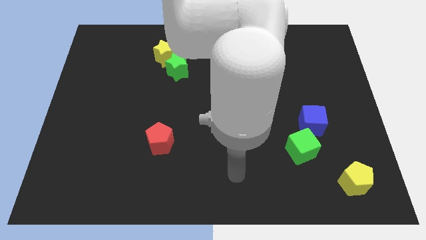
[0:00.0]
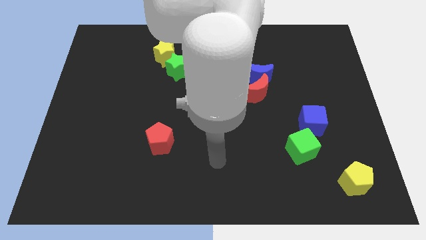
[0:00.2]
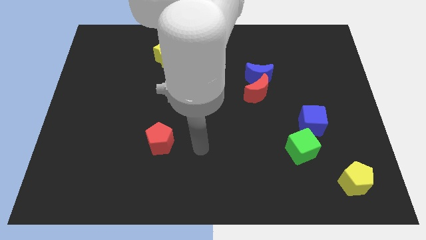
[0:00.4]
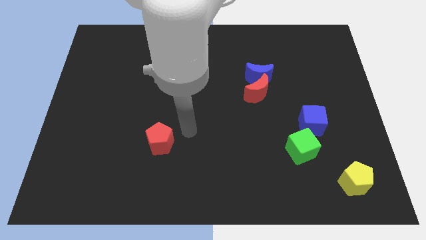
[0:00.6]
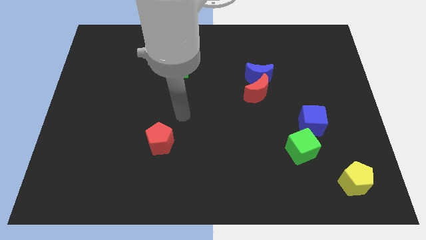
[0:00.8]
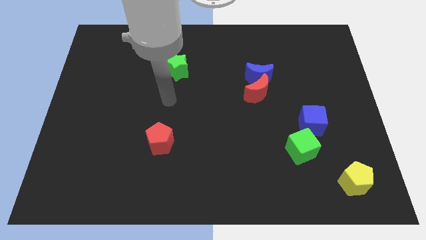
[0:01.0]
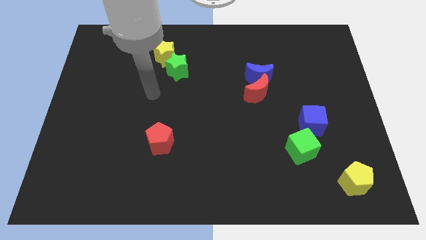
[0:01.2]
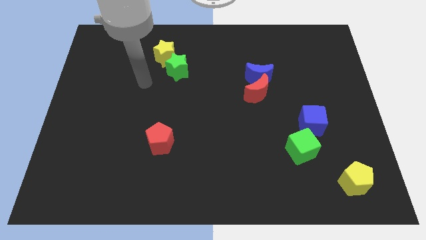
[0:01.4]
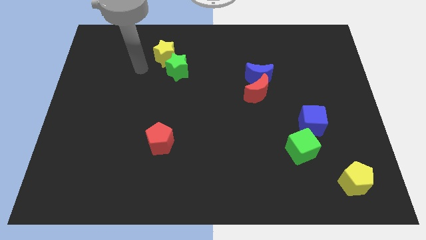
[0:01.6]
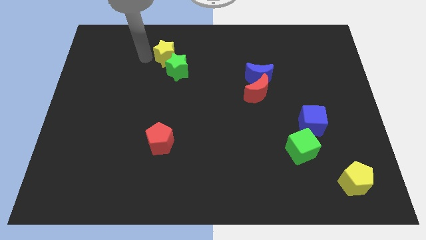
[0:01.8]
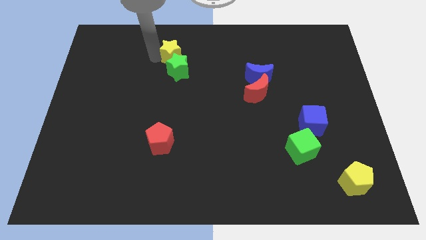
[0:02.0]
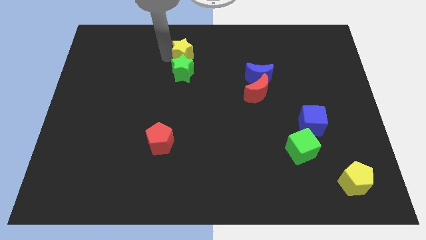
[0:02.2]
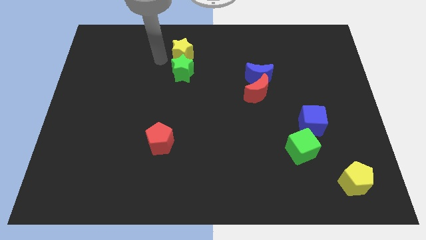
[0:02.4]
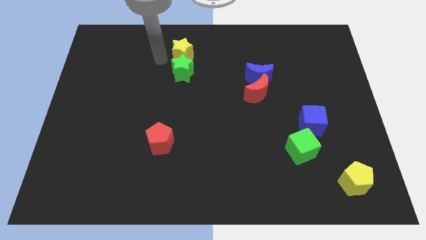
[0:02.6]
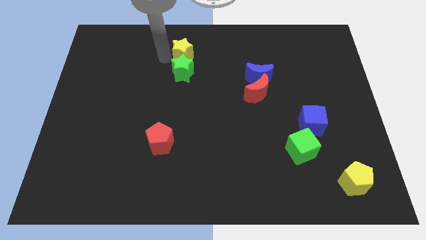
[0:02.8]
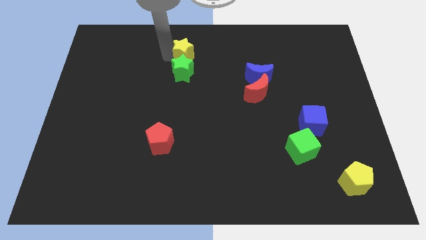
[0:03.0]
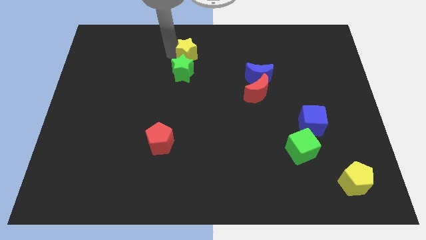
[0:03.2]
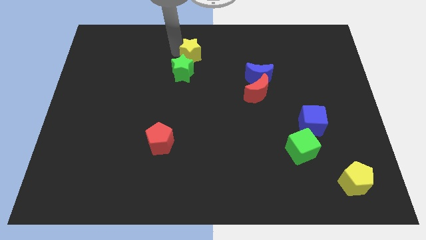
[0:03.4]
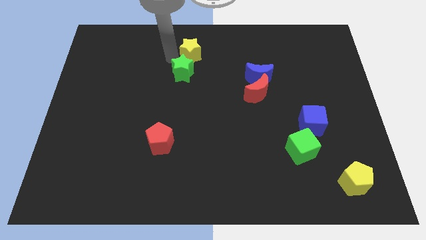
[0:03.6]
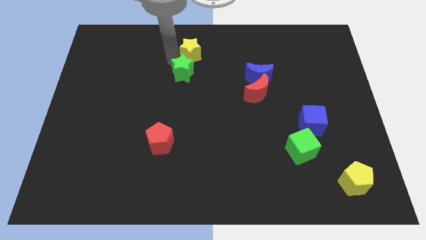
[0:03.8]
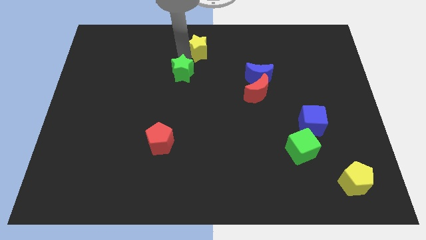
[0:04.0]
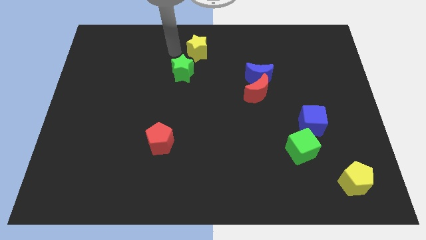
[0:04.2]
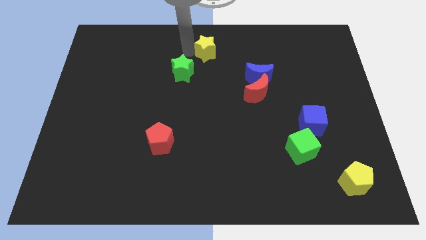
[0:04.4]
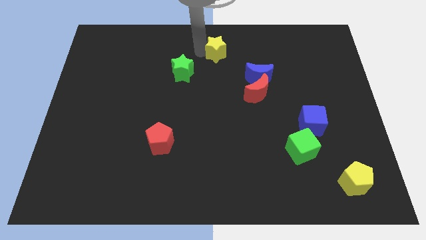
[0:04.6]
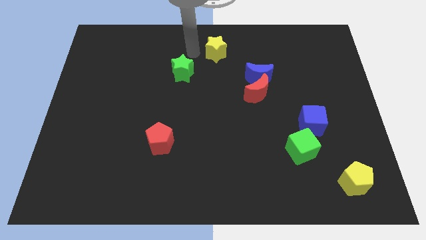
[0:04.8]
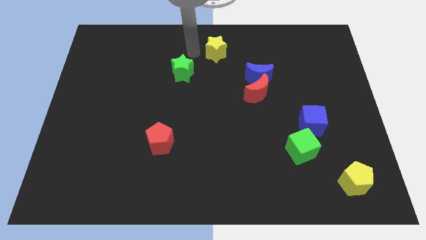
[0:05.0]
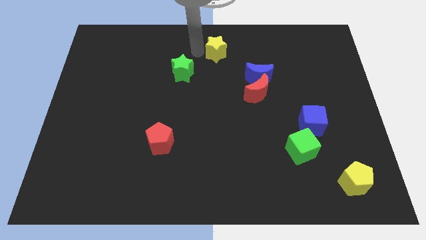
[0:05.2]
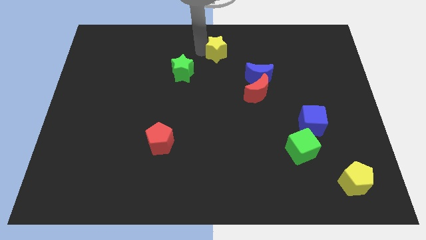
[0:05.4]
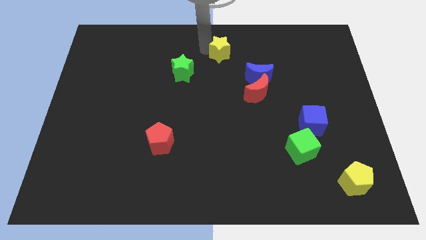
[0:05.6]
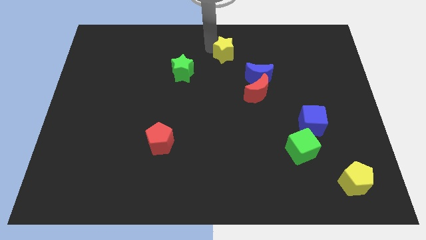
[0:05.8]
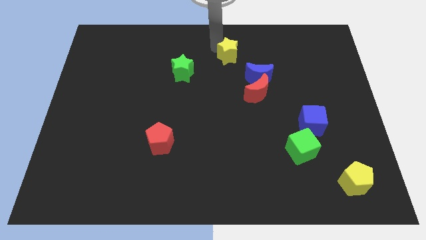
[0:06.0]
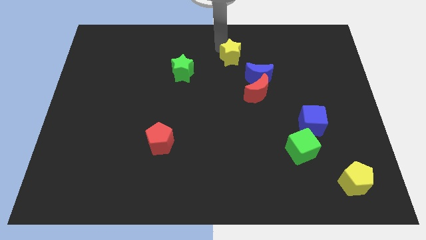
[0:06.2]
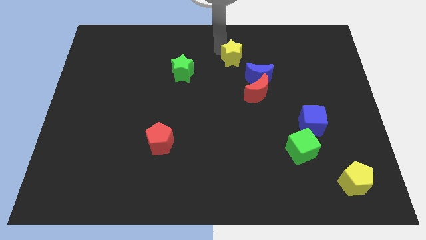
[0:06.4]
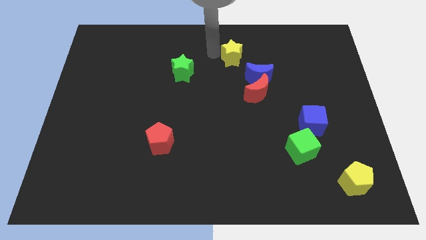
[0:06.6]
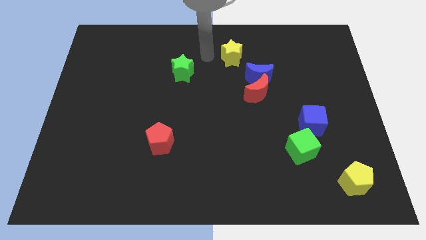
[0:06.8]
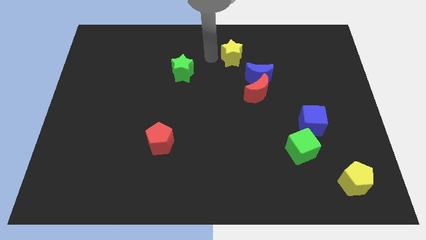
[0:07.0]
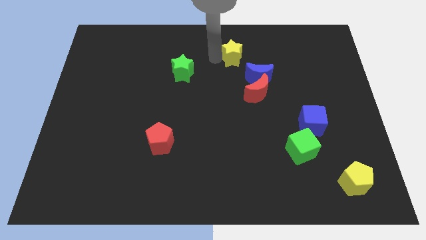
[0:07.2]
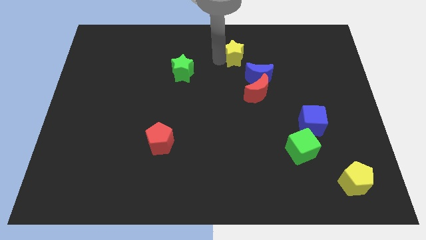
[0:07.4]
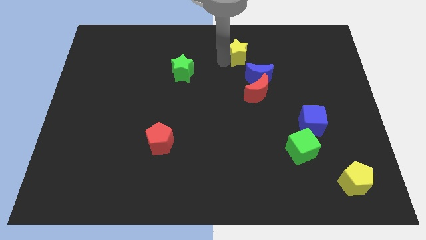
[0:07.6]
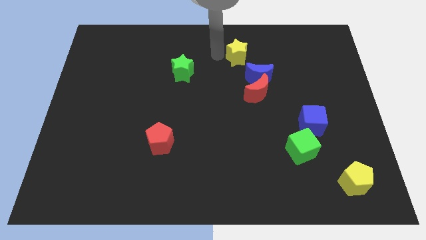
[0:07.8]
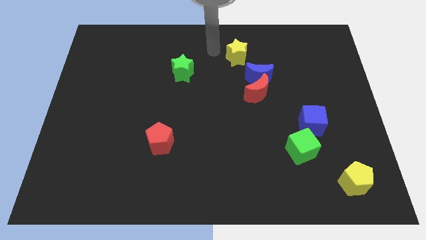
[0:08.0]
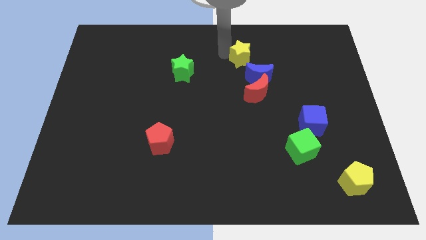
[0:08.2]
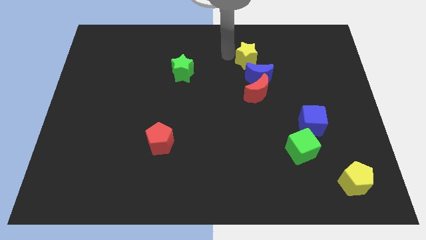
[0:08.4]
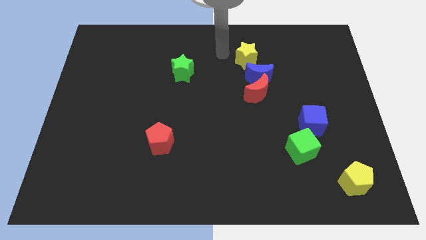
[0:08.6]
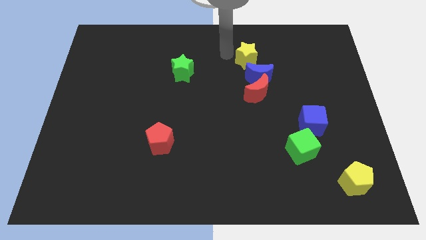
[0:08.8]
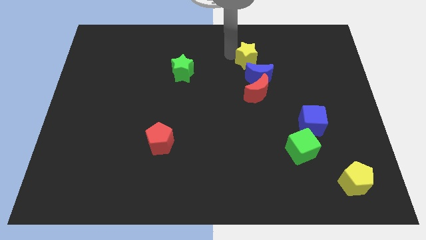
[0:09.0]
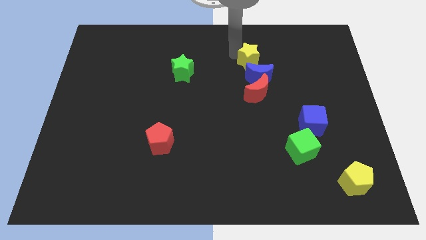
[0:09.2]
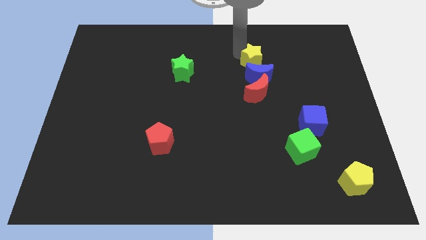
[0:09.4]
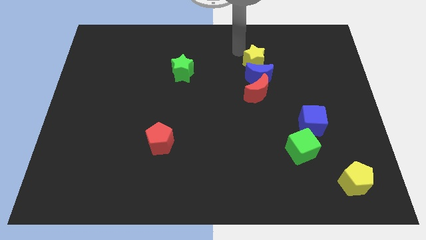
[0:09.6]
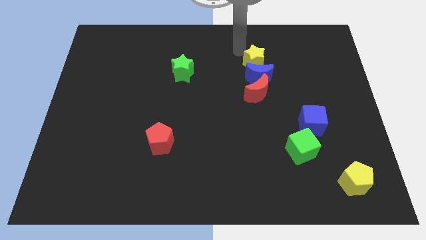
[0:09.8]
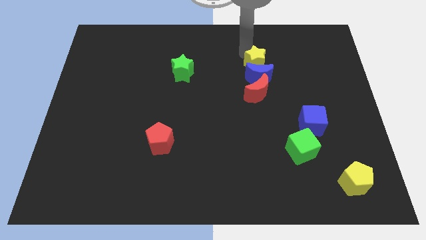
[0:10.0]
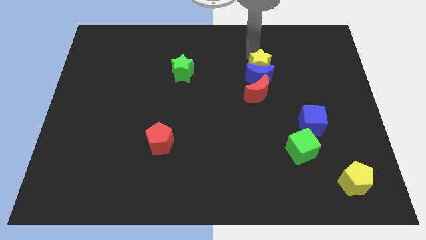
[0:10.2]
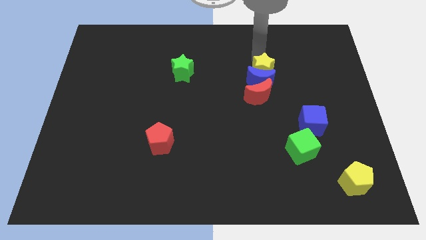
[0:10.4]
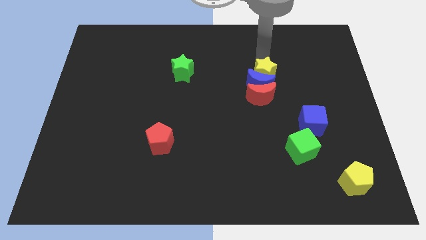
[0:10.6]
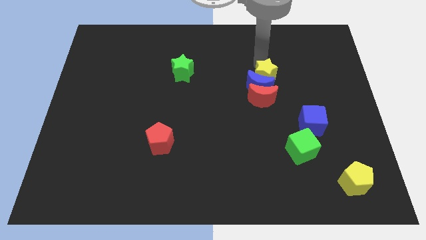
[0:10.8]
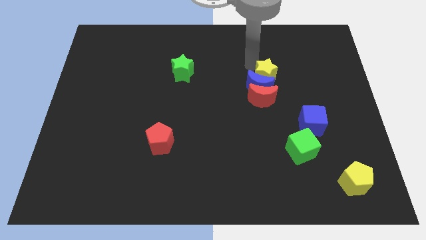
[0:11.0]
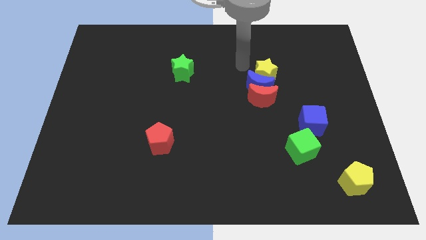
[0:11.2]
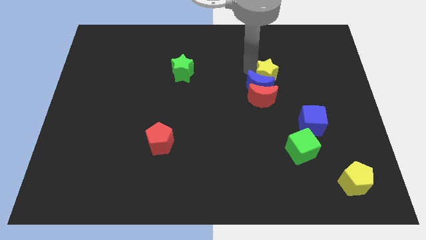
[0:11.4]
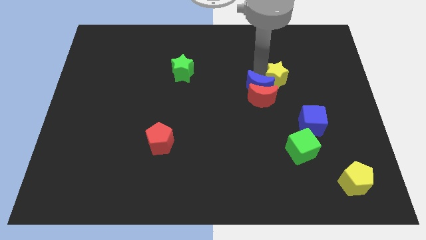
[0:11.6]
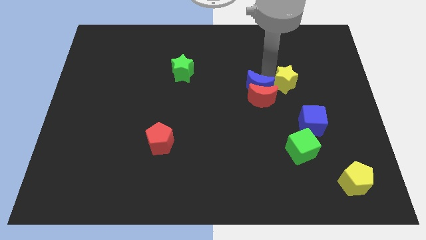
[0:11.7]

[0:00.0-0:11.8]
put the yellow star to the top of the blue cube

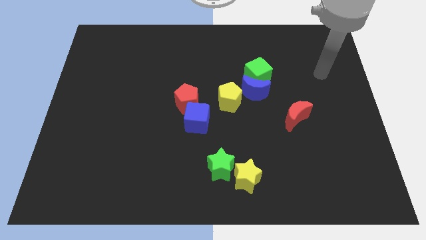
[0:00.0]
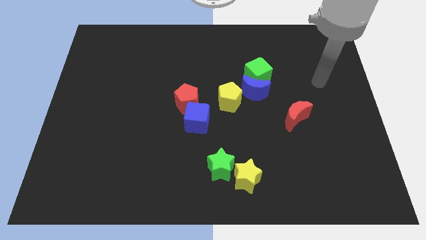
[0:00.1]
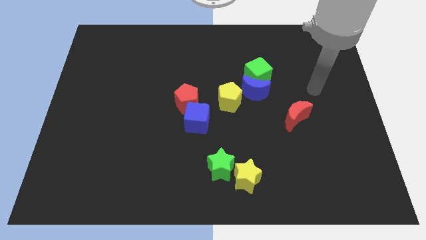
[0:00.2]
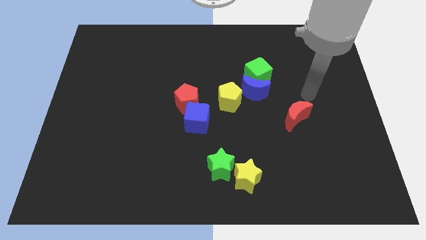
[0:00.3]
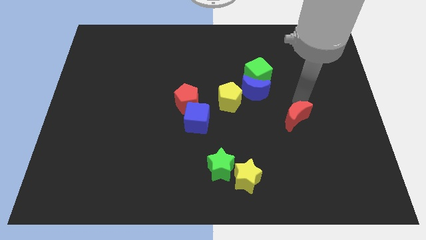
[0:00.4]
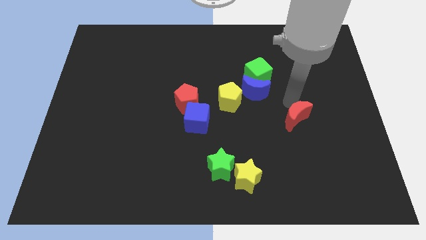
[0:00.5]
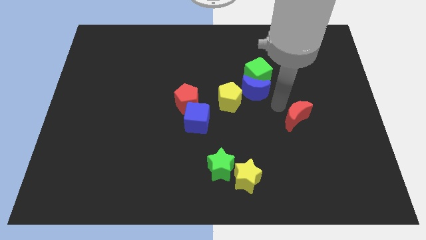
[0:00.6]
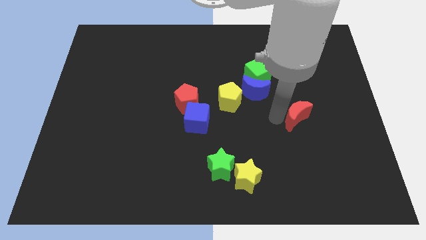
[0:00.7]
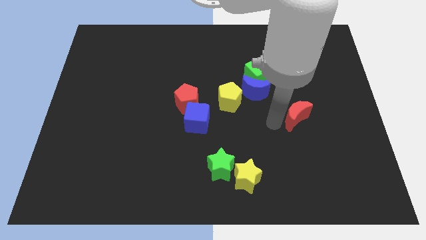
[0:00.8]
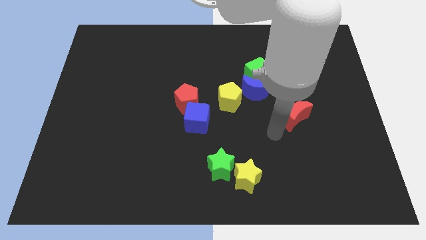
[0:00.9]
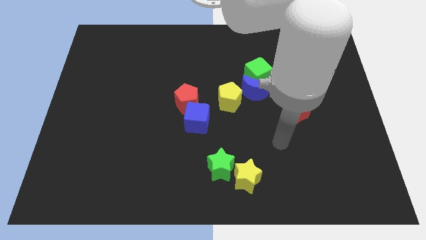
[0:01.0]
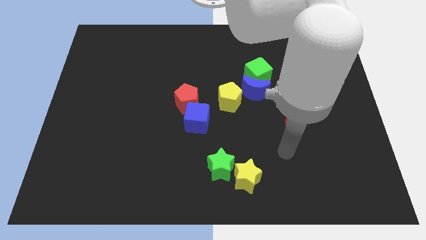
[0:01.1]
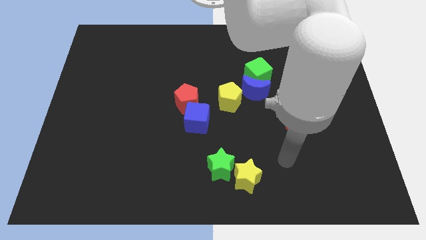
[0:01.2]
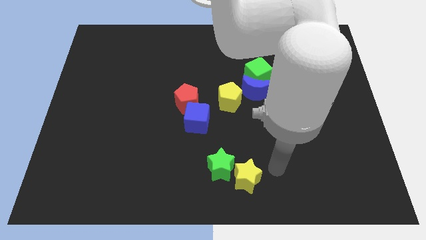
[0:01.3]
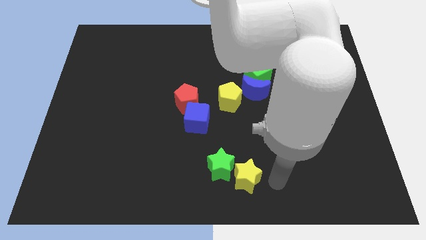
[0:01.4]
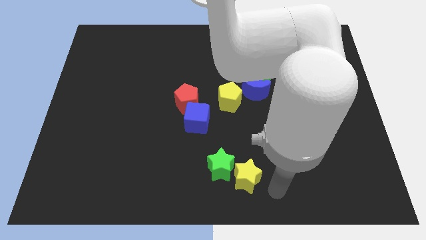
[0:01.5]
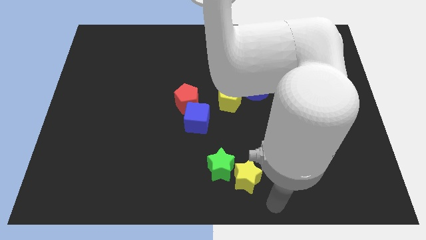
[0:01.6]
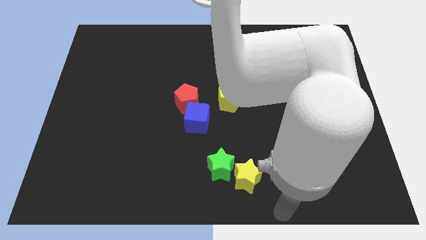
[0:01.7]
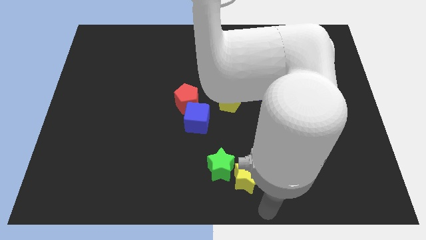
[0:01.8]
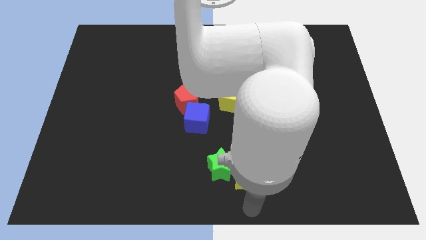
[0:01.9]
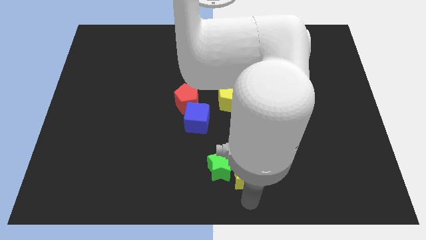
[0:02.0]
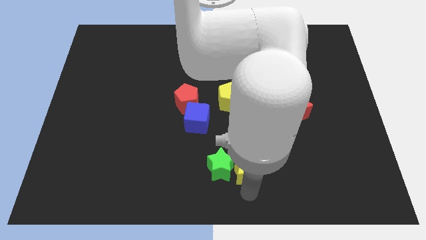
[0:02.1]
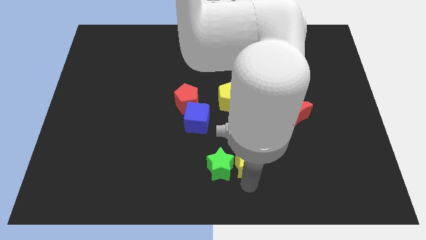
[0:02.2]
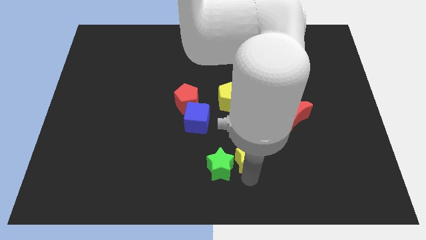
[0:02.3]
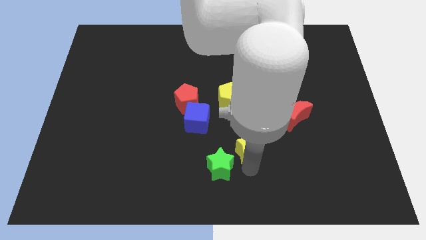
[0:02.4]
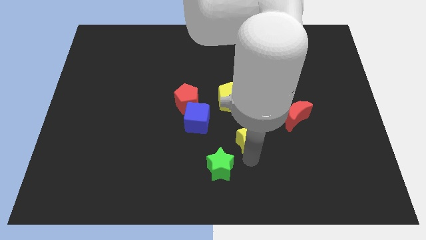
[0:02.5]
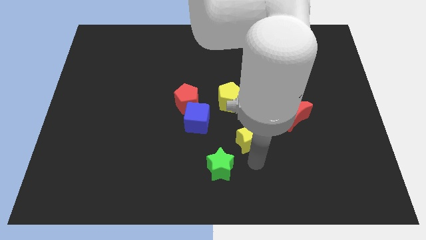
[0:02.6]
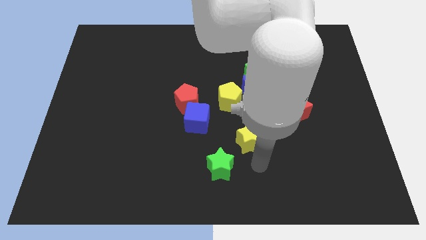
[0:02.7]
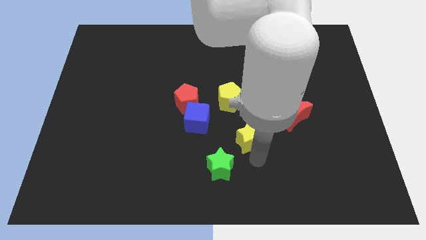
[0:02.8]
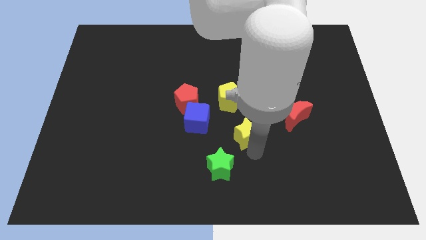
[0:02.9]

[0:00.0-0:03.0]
move the yellow star to the right side of the blue cube
